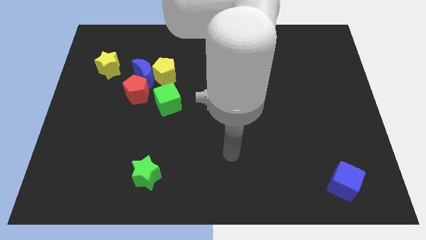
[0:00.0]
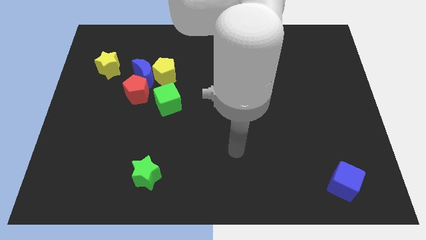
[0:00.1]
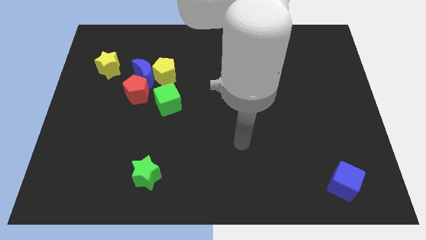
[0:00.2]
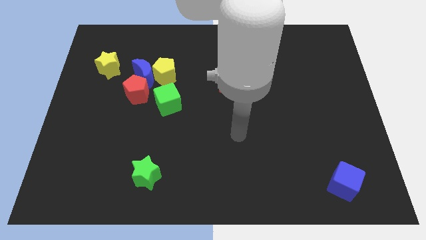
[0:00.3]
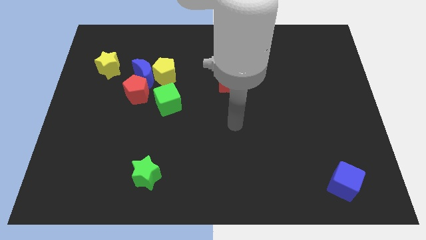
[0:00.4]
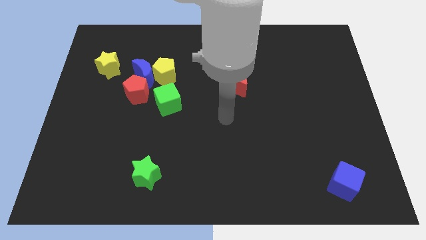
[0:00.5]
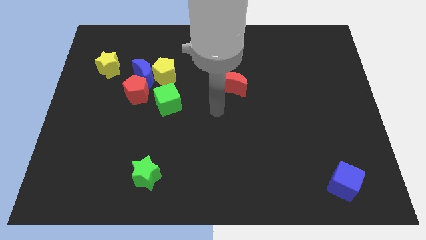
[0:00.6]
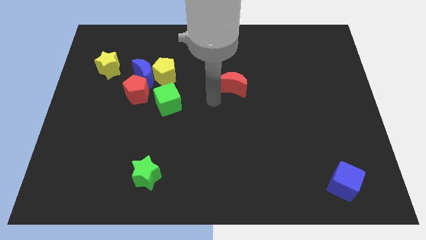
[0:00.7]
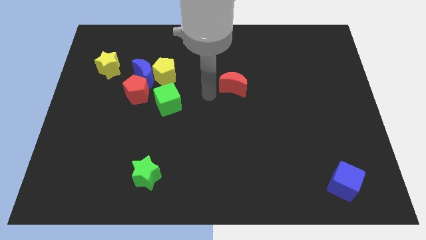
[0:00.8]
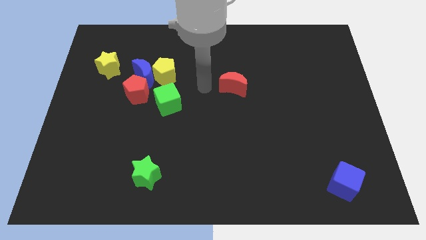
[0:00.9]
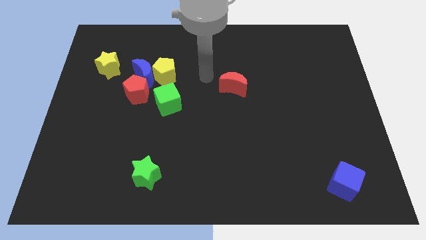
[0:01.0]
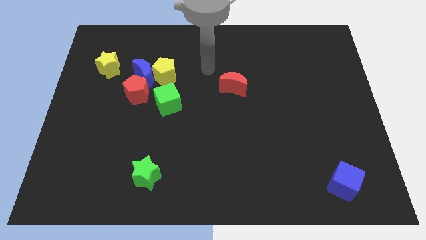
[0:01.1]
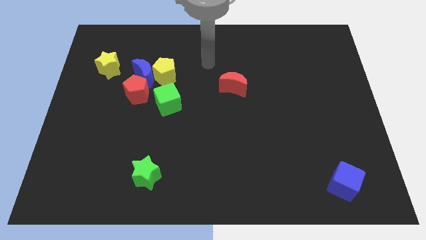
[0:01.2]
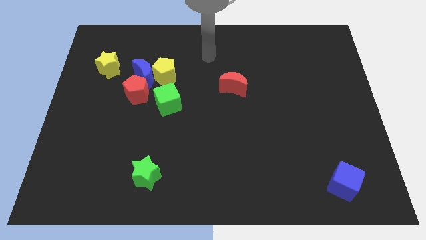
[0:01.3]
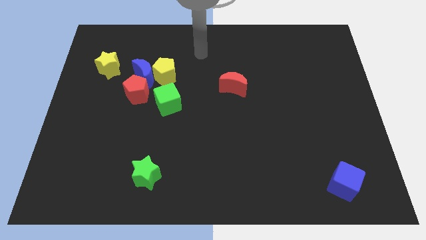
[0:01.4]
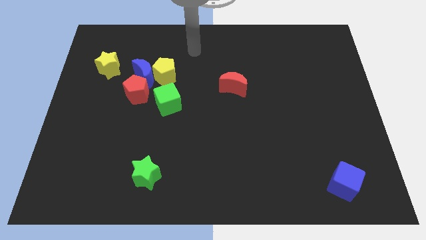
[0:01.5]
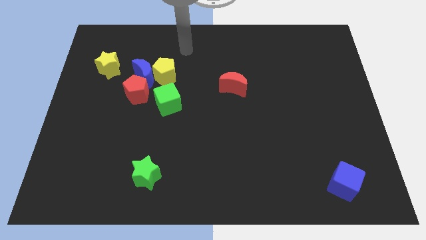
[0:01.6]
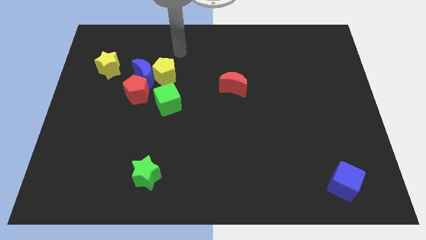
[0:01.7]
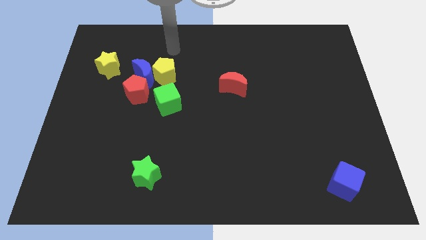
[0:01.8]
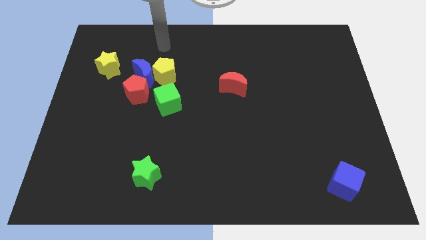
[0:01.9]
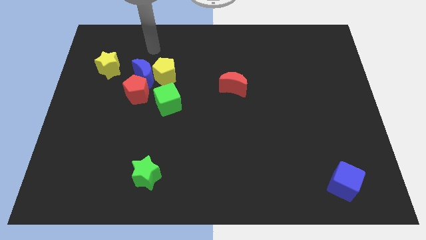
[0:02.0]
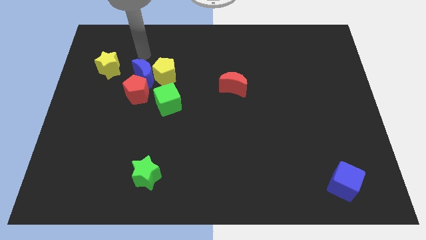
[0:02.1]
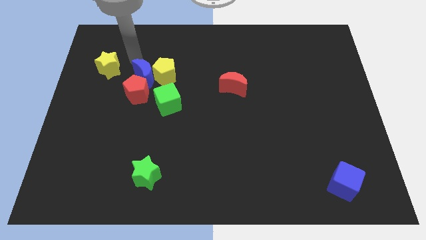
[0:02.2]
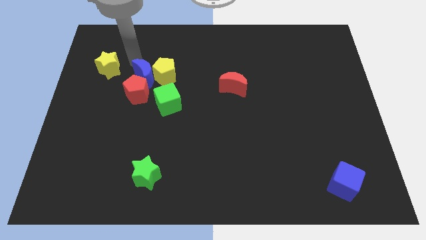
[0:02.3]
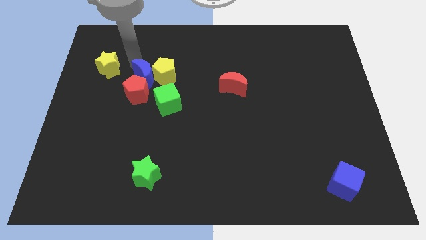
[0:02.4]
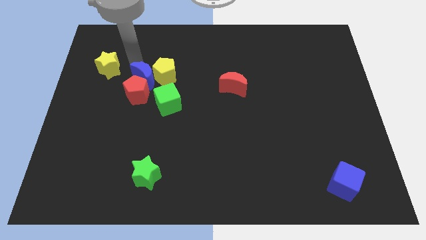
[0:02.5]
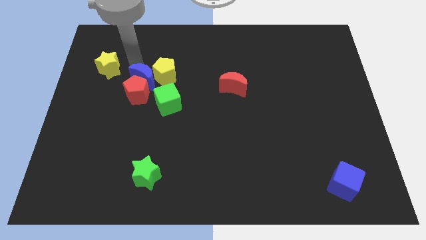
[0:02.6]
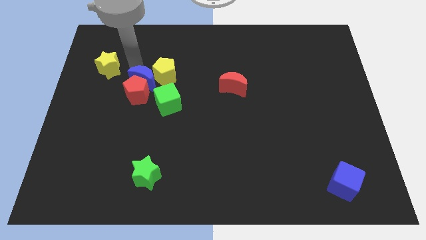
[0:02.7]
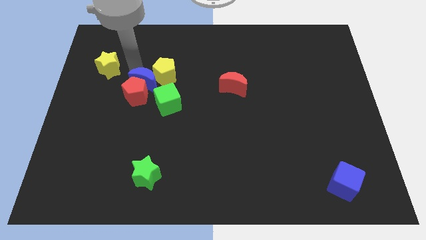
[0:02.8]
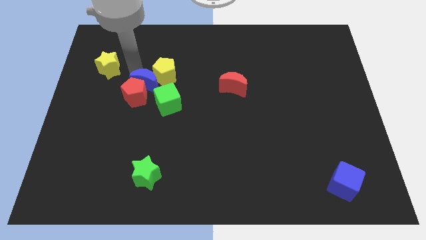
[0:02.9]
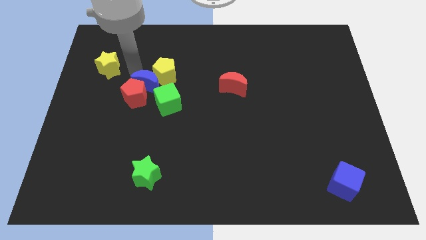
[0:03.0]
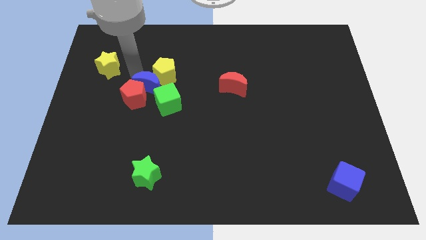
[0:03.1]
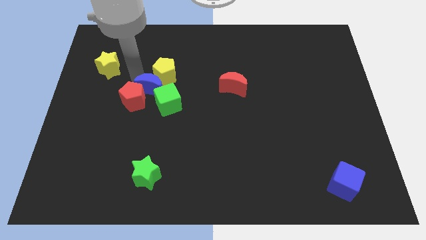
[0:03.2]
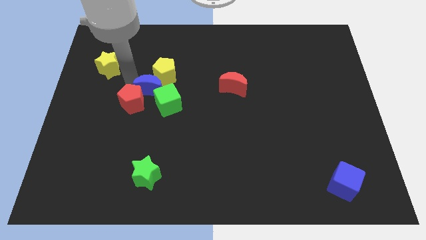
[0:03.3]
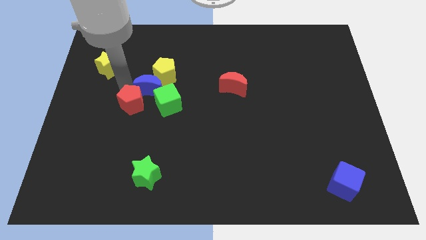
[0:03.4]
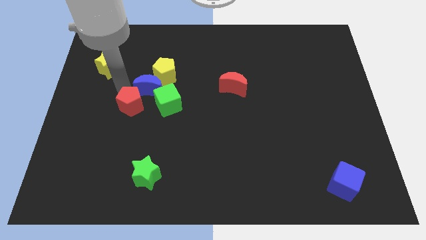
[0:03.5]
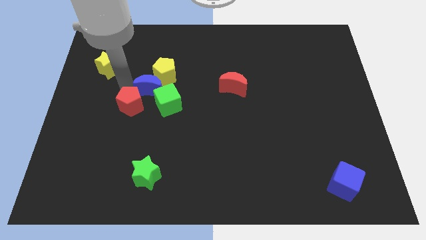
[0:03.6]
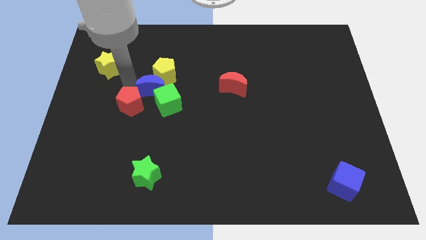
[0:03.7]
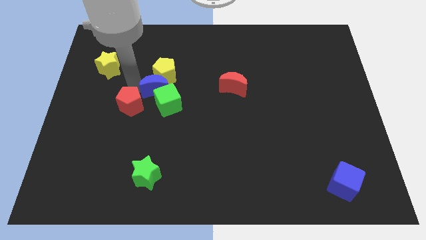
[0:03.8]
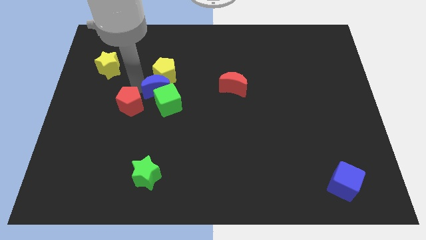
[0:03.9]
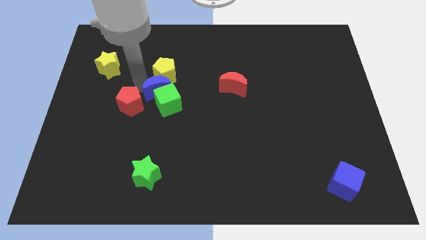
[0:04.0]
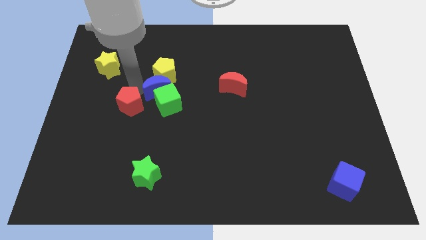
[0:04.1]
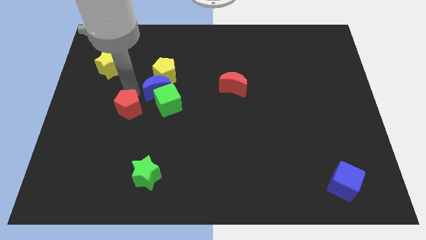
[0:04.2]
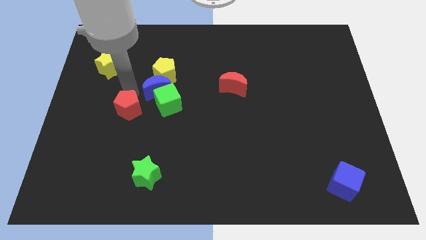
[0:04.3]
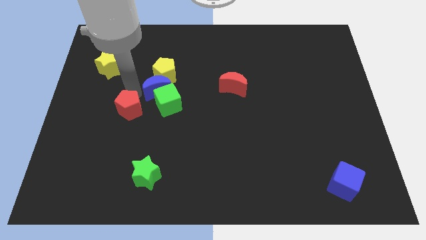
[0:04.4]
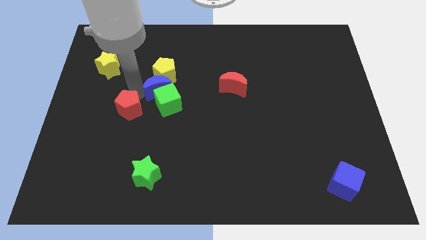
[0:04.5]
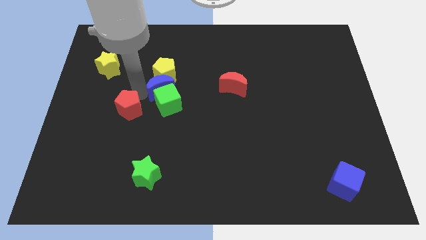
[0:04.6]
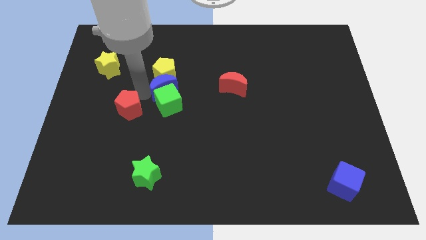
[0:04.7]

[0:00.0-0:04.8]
slightly slide the blue moon down and then right

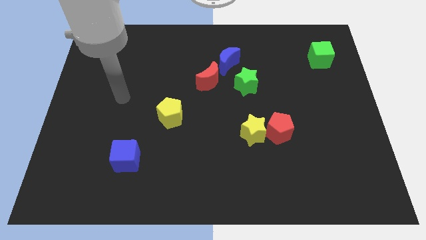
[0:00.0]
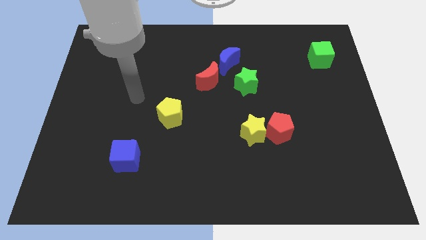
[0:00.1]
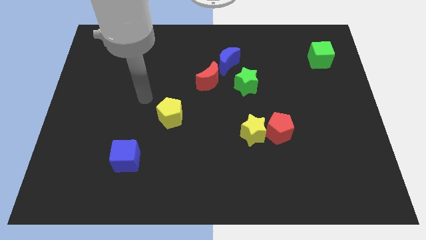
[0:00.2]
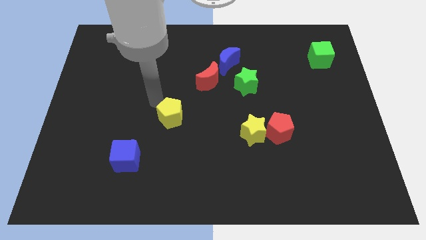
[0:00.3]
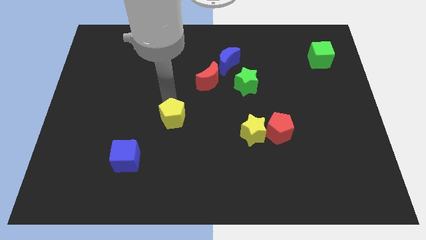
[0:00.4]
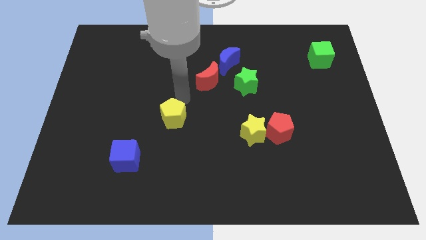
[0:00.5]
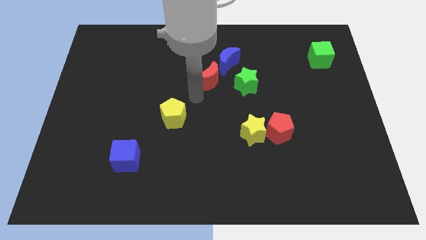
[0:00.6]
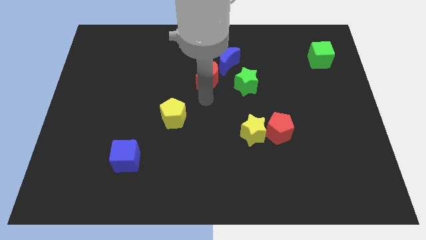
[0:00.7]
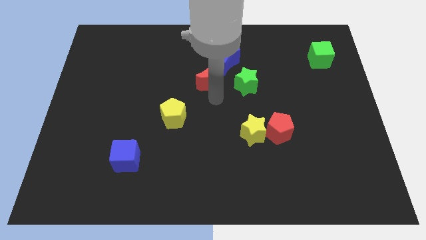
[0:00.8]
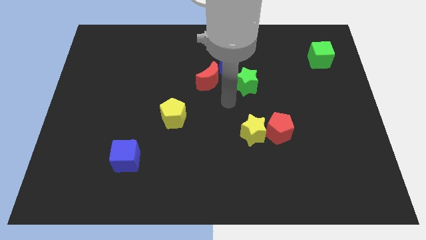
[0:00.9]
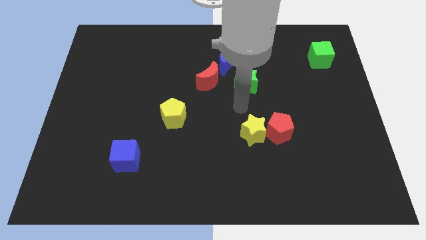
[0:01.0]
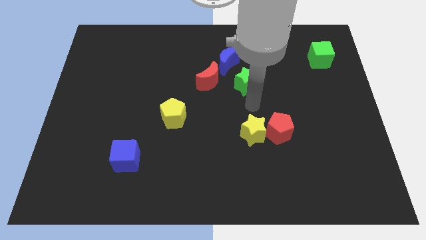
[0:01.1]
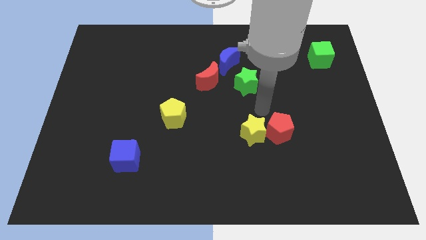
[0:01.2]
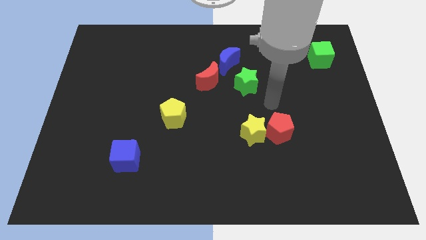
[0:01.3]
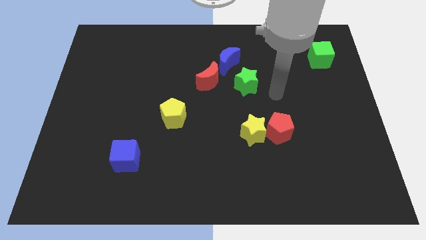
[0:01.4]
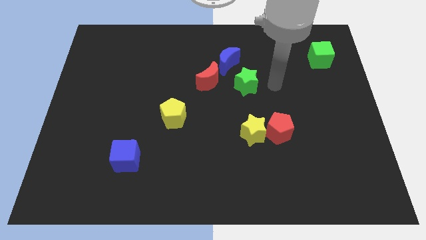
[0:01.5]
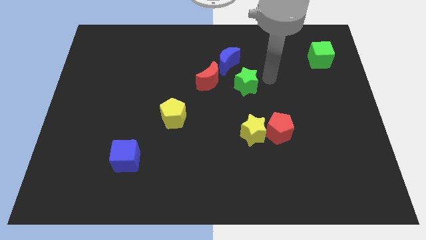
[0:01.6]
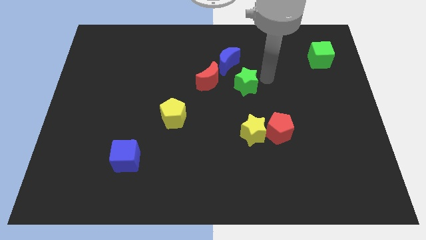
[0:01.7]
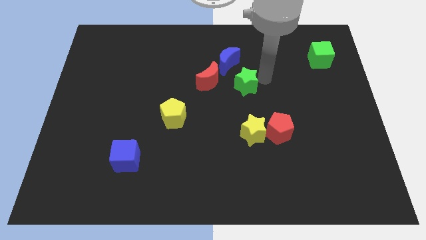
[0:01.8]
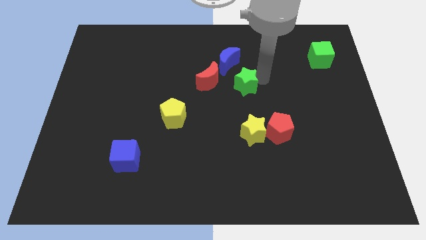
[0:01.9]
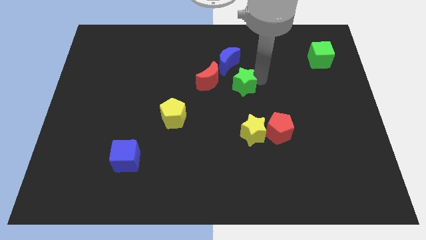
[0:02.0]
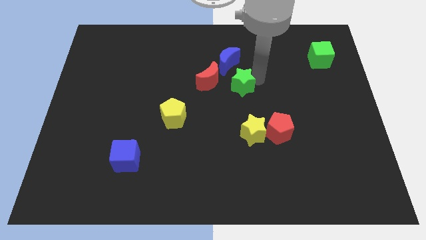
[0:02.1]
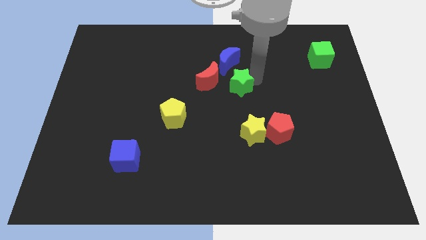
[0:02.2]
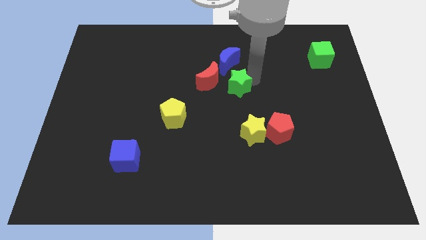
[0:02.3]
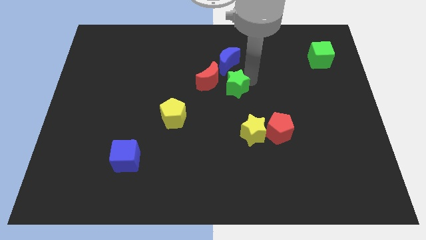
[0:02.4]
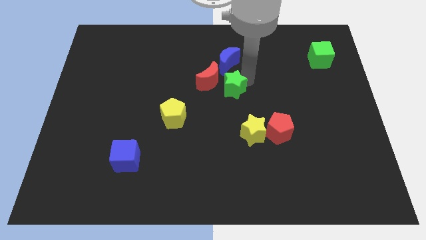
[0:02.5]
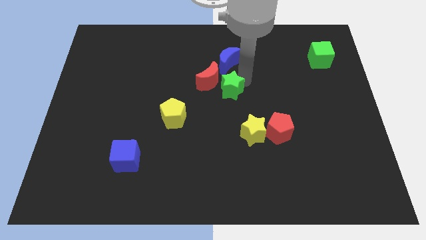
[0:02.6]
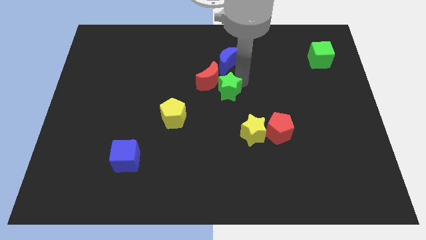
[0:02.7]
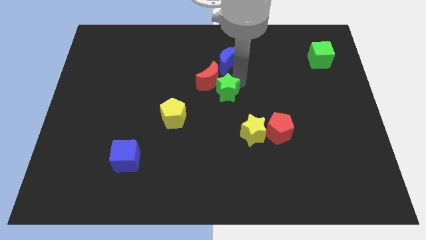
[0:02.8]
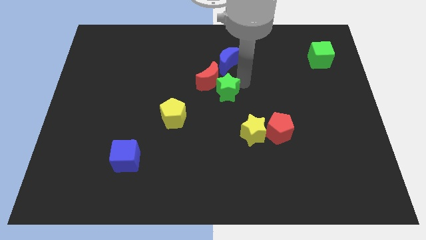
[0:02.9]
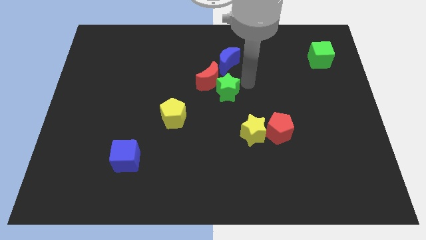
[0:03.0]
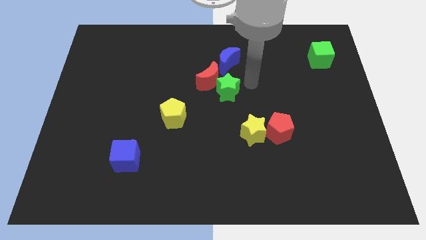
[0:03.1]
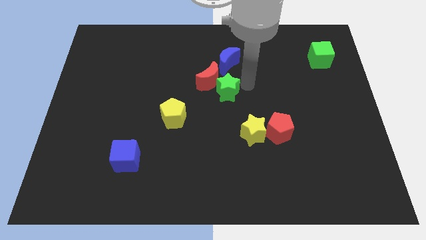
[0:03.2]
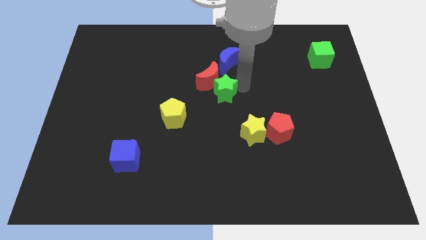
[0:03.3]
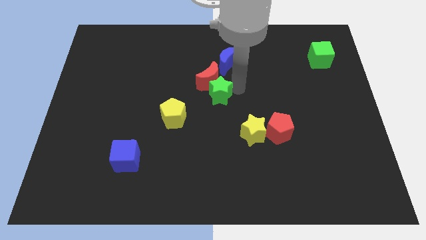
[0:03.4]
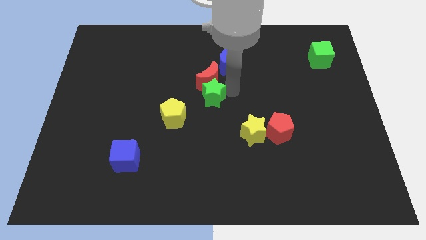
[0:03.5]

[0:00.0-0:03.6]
slightly move the green star to the left
